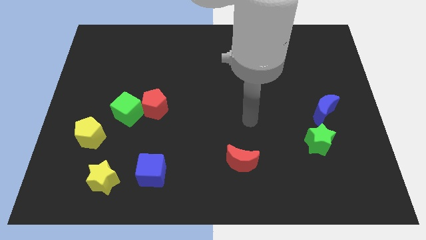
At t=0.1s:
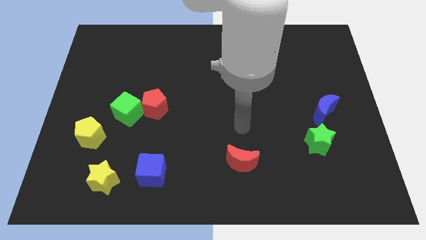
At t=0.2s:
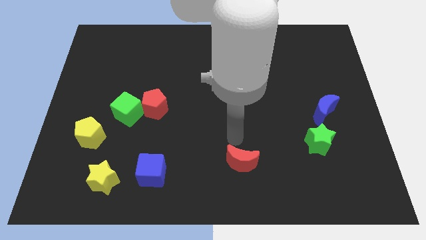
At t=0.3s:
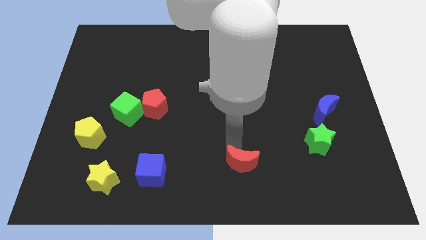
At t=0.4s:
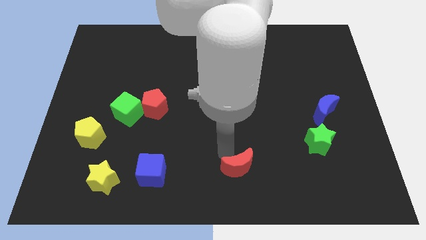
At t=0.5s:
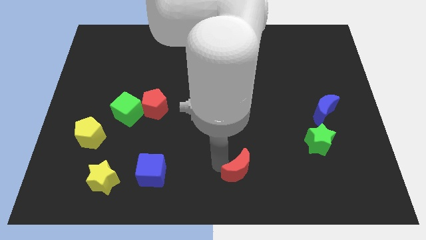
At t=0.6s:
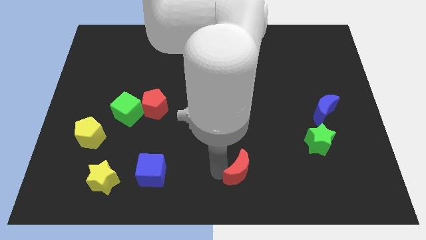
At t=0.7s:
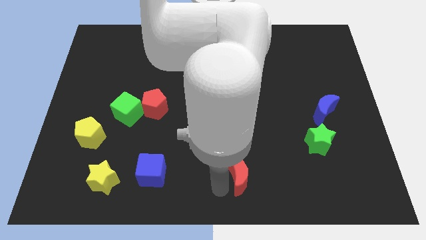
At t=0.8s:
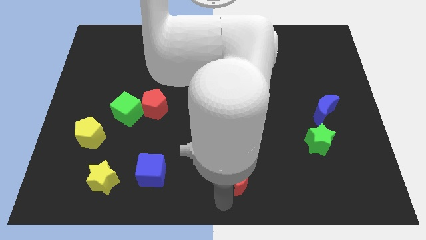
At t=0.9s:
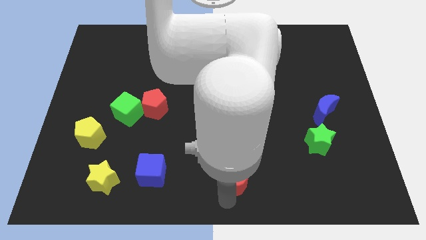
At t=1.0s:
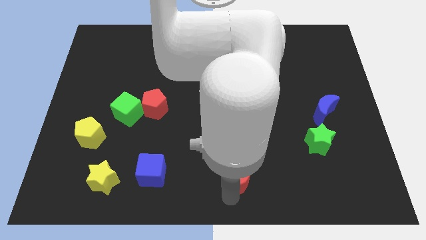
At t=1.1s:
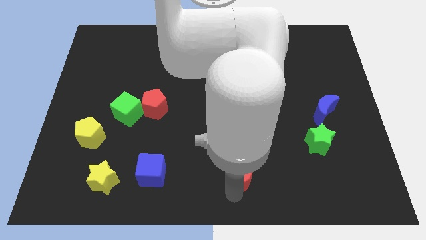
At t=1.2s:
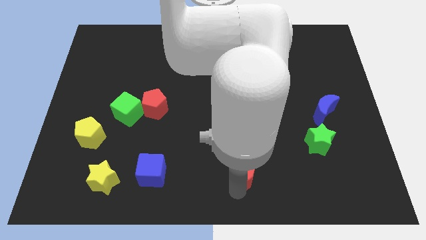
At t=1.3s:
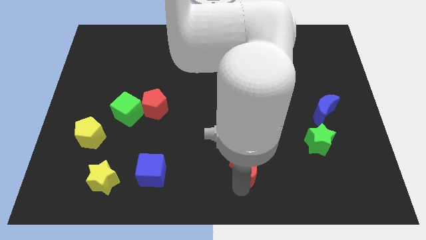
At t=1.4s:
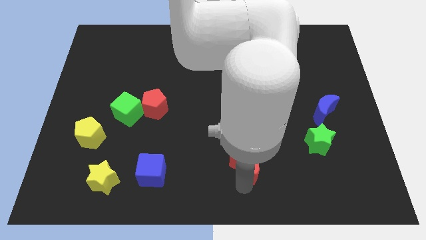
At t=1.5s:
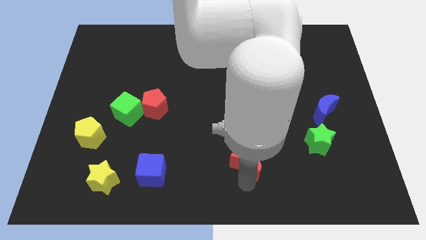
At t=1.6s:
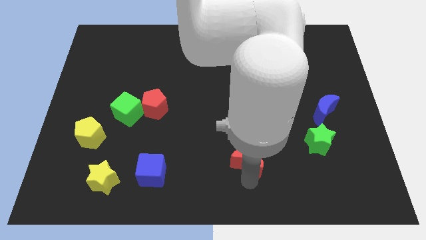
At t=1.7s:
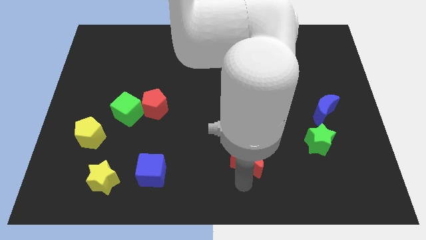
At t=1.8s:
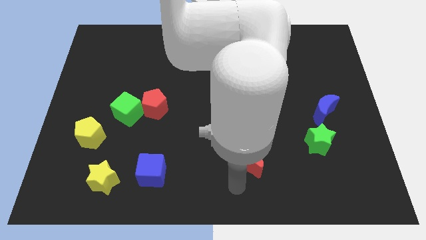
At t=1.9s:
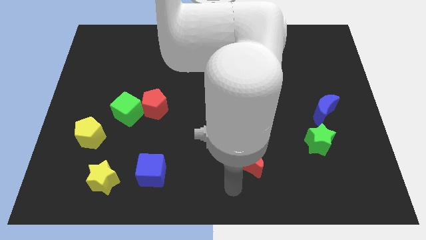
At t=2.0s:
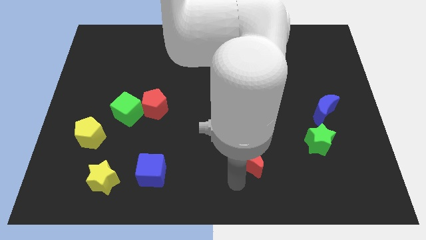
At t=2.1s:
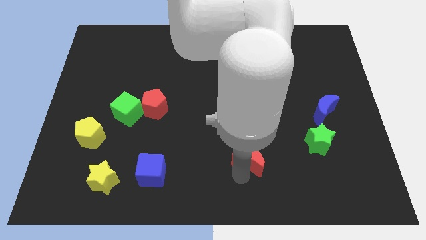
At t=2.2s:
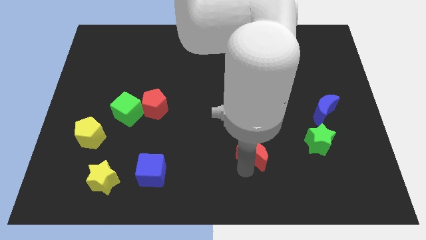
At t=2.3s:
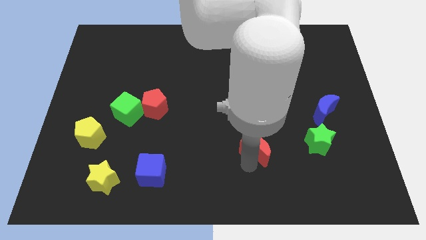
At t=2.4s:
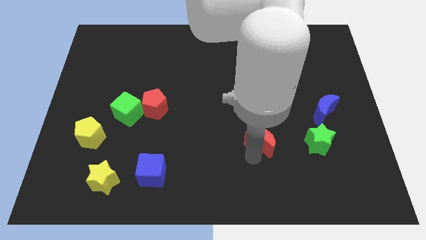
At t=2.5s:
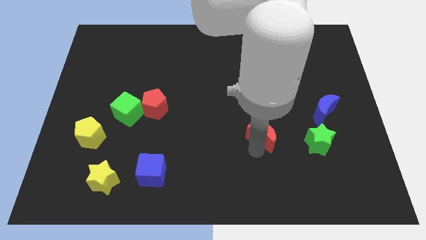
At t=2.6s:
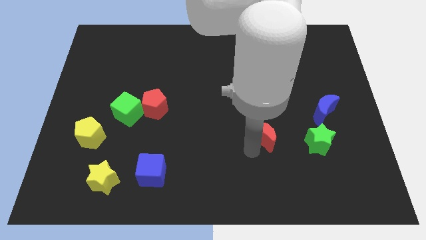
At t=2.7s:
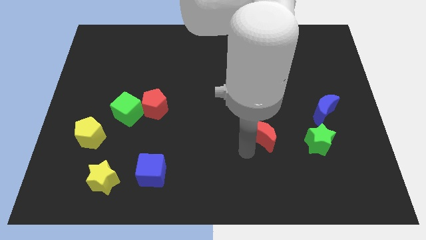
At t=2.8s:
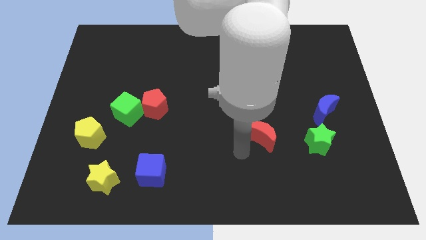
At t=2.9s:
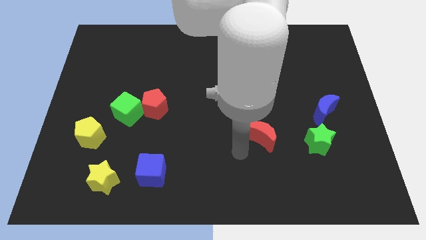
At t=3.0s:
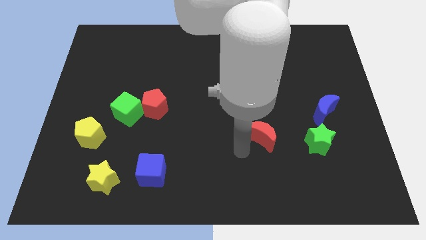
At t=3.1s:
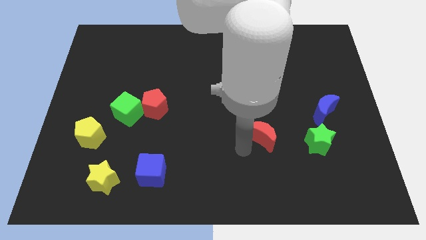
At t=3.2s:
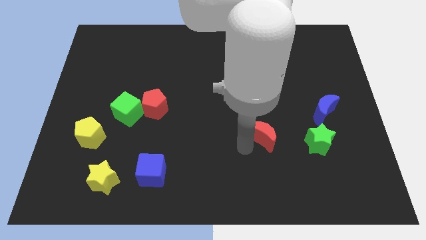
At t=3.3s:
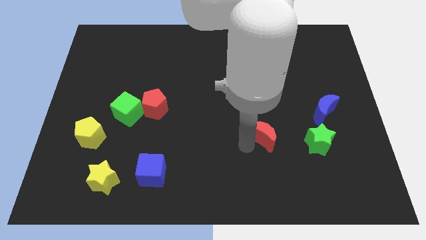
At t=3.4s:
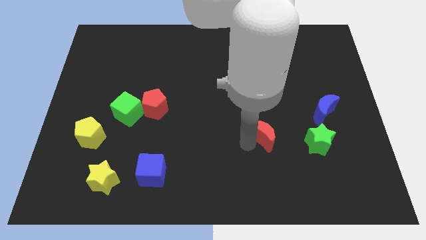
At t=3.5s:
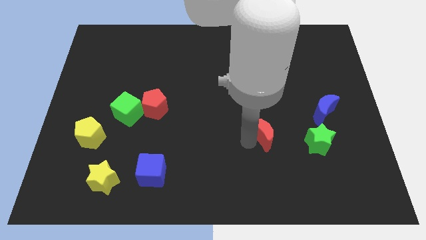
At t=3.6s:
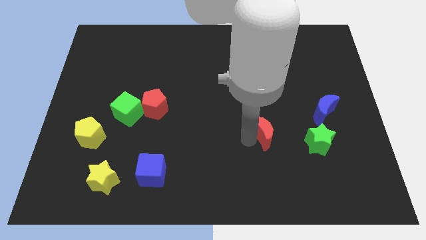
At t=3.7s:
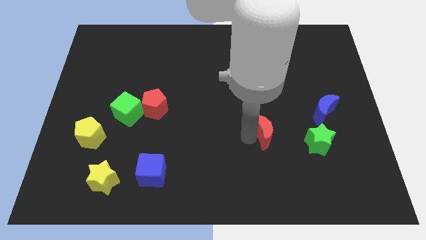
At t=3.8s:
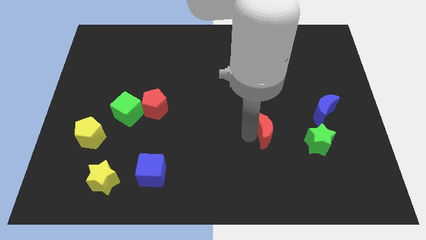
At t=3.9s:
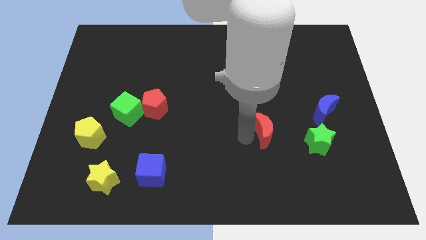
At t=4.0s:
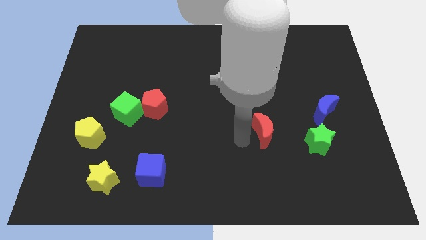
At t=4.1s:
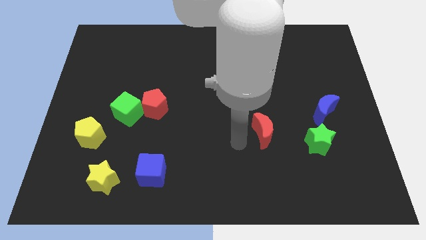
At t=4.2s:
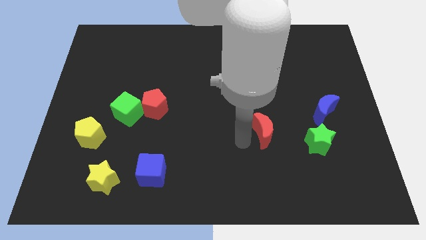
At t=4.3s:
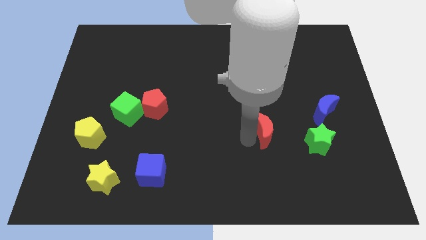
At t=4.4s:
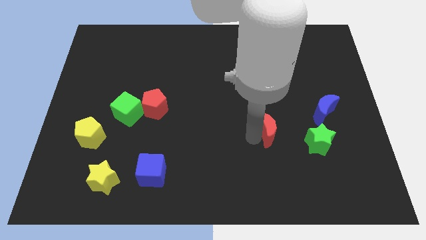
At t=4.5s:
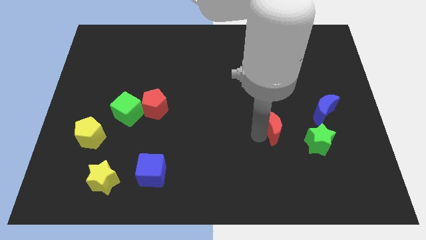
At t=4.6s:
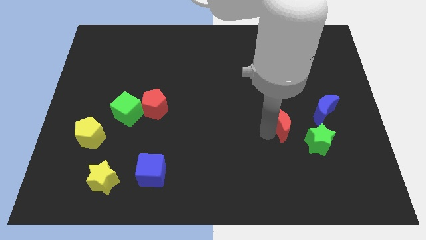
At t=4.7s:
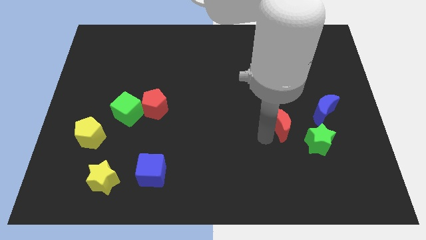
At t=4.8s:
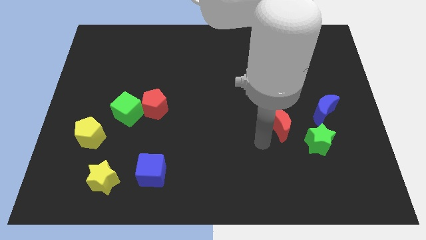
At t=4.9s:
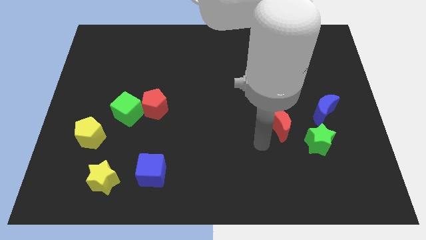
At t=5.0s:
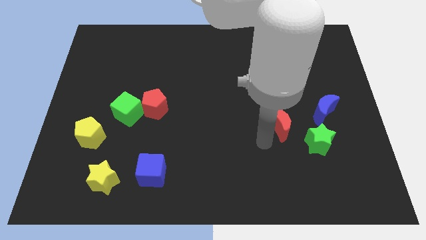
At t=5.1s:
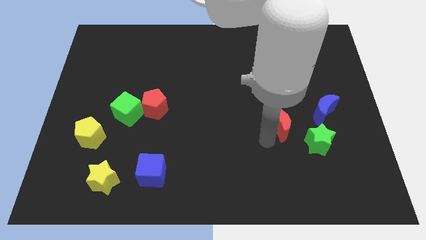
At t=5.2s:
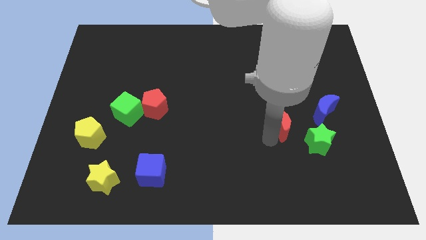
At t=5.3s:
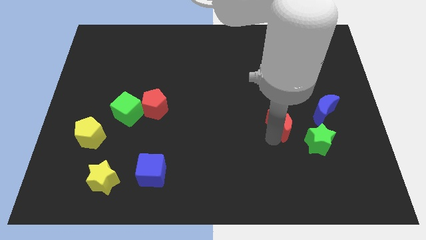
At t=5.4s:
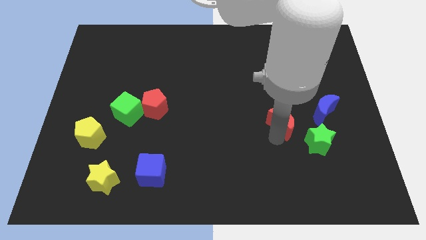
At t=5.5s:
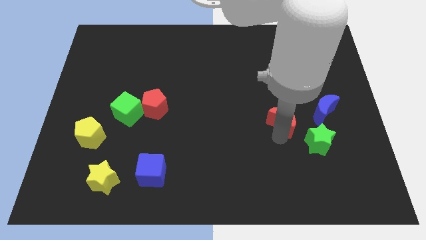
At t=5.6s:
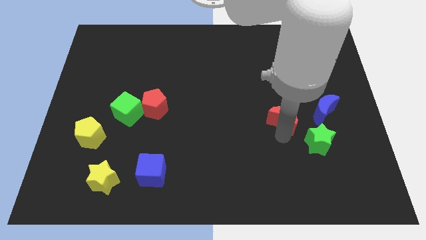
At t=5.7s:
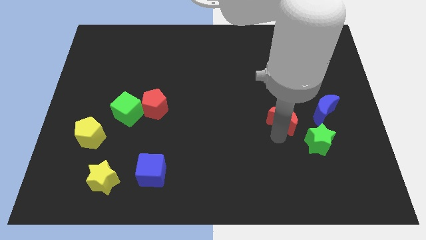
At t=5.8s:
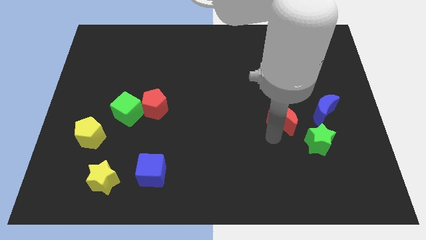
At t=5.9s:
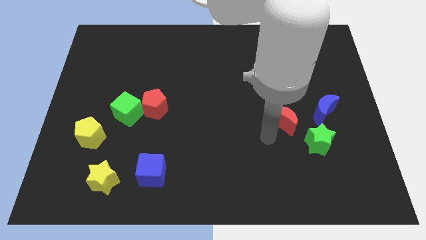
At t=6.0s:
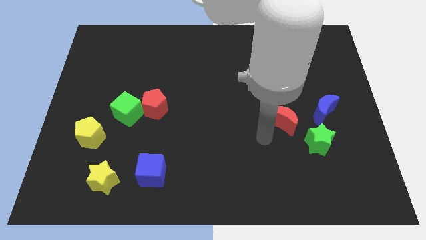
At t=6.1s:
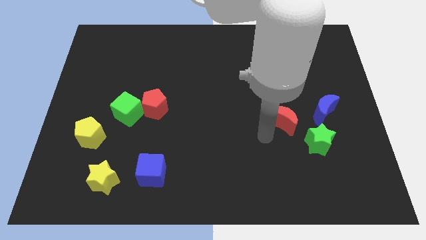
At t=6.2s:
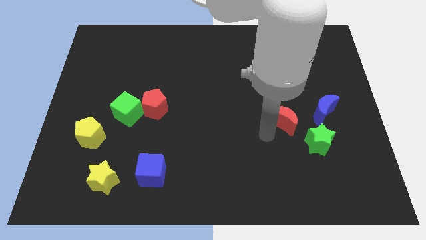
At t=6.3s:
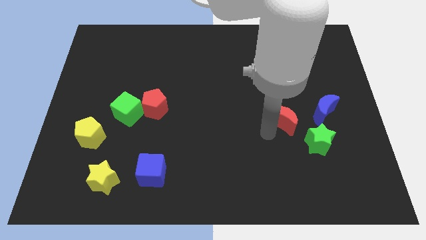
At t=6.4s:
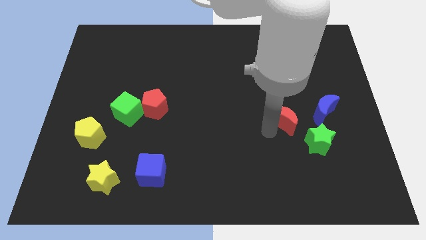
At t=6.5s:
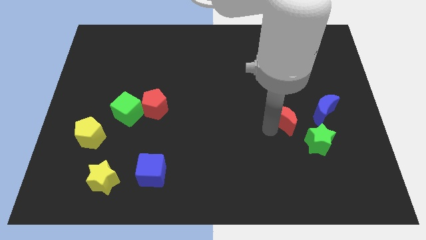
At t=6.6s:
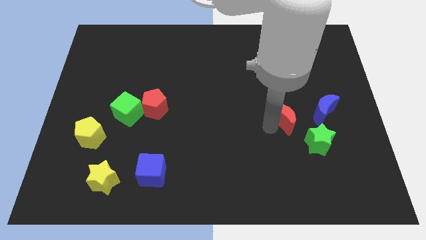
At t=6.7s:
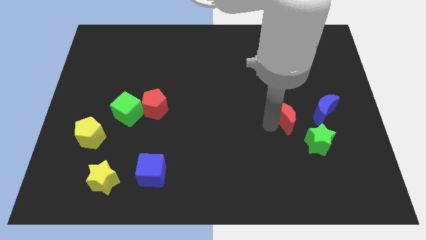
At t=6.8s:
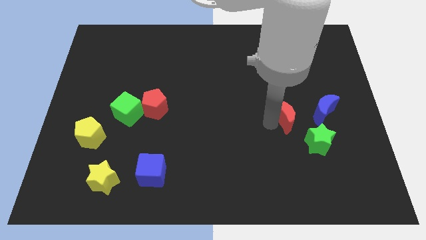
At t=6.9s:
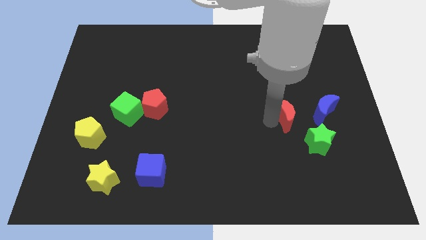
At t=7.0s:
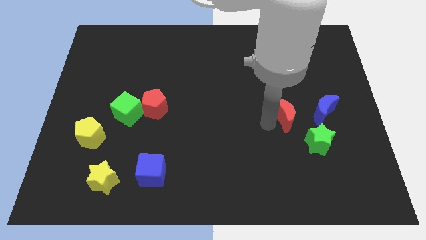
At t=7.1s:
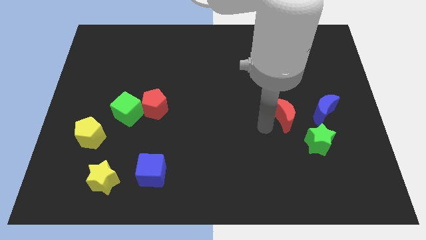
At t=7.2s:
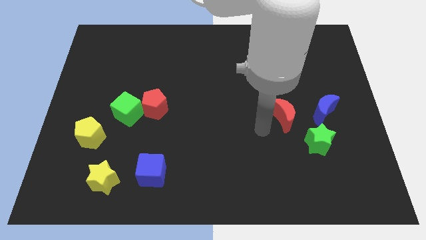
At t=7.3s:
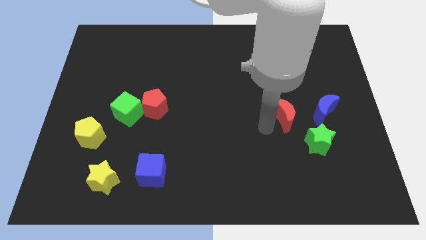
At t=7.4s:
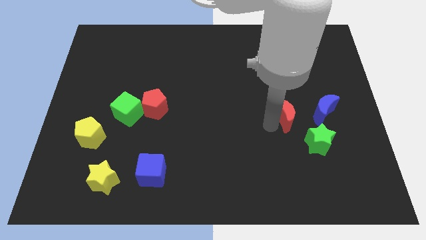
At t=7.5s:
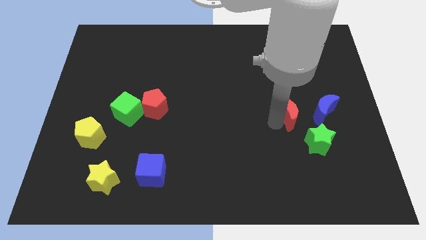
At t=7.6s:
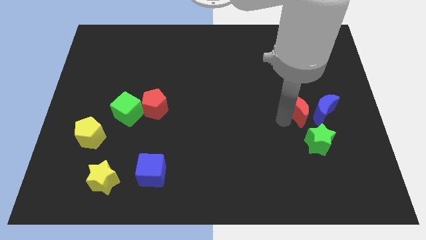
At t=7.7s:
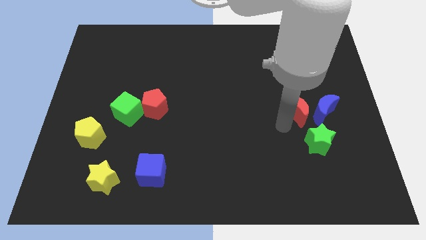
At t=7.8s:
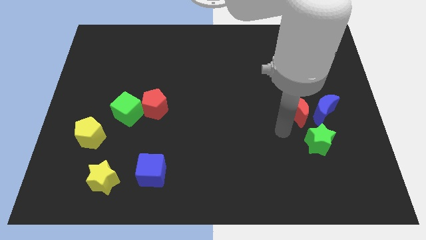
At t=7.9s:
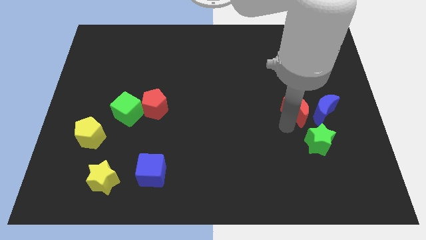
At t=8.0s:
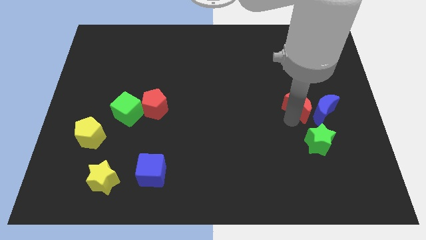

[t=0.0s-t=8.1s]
move the red moon upwards and then to the right

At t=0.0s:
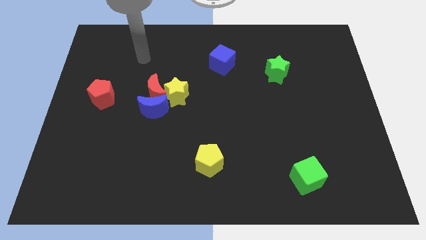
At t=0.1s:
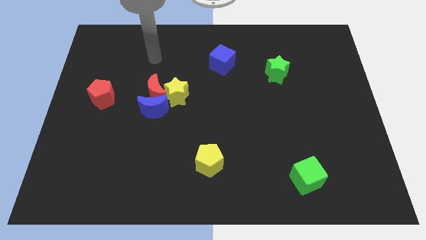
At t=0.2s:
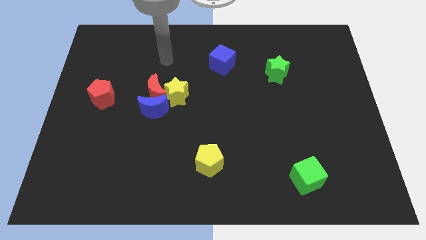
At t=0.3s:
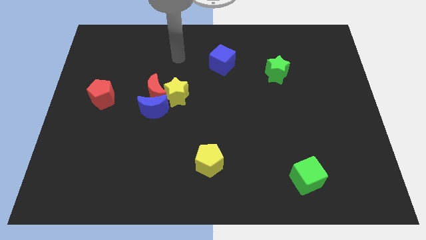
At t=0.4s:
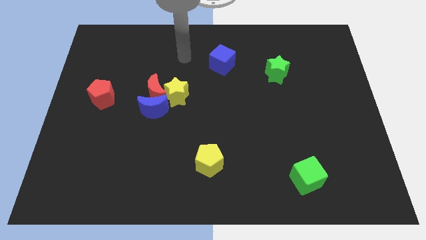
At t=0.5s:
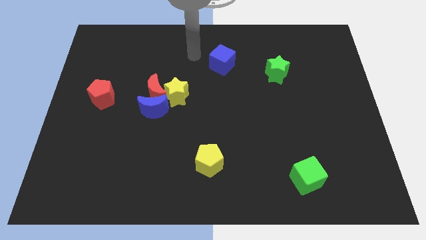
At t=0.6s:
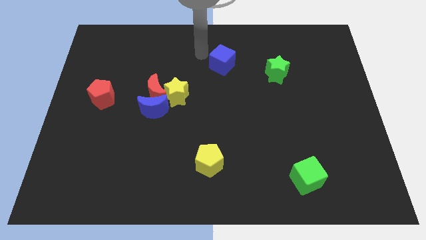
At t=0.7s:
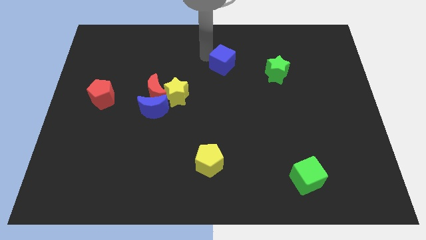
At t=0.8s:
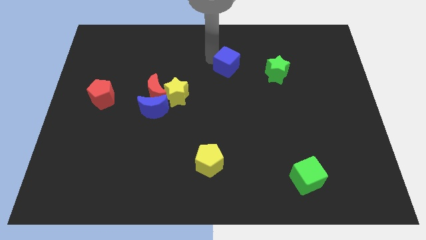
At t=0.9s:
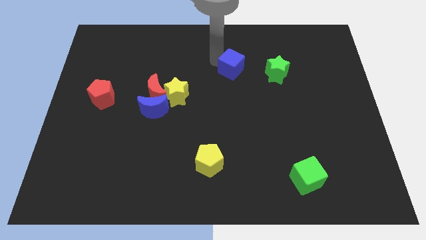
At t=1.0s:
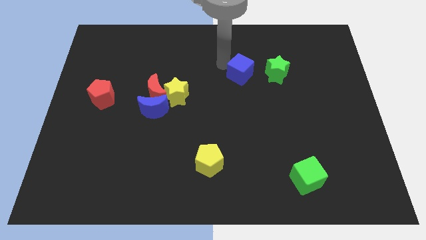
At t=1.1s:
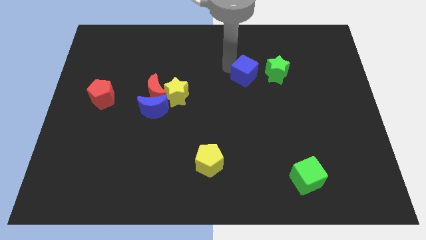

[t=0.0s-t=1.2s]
push the blue cube a little down and to the right
